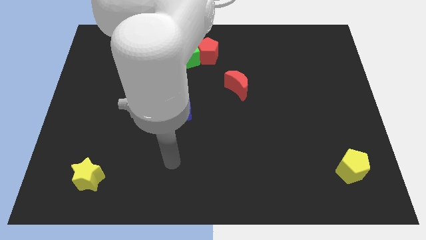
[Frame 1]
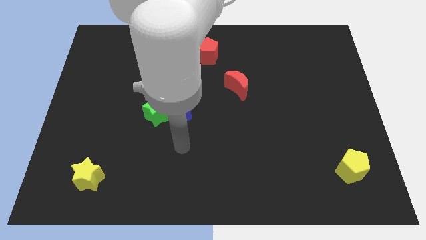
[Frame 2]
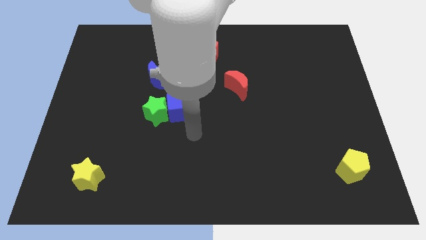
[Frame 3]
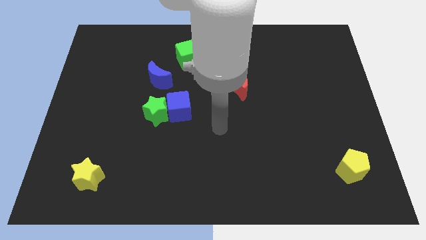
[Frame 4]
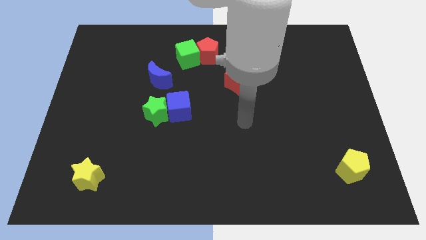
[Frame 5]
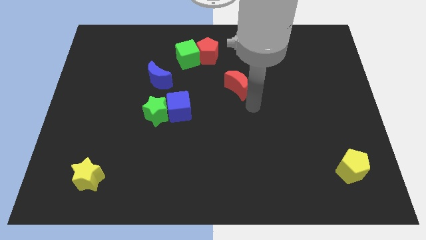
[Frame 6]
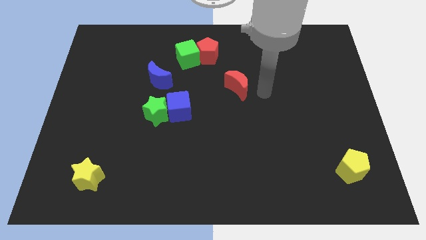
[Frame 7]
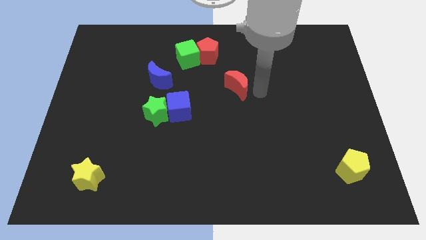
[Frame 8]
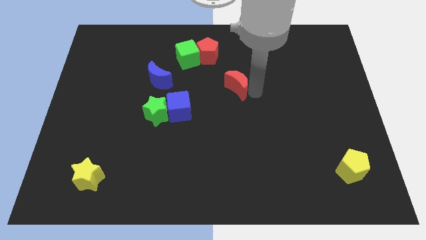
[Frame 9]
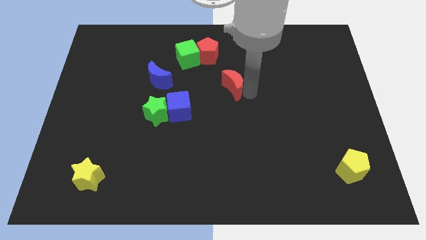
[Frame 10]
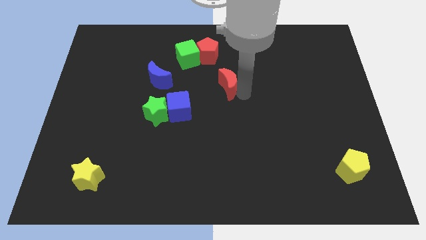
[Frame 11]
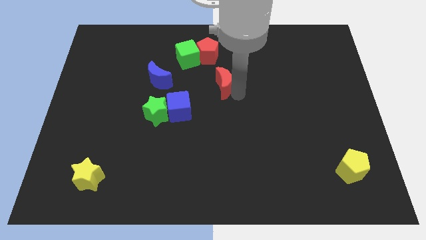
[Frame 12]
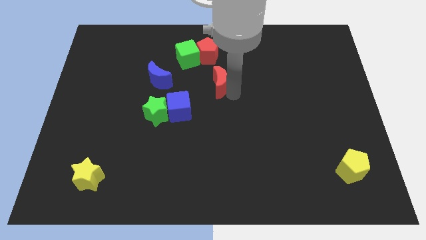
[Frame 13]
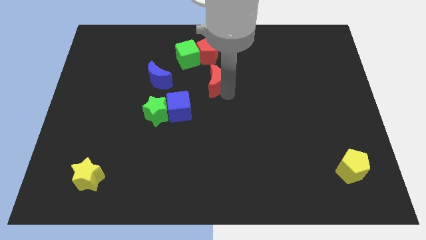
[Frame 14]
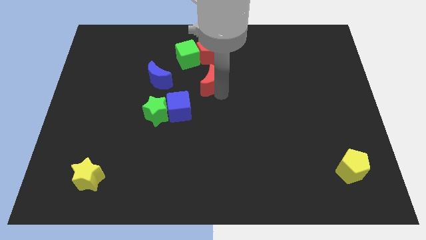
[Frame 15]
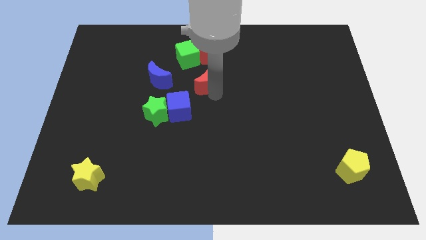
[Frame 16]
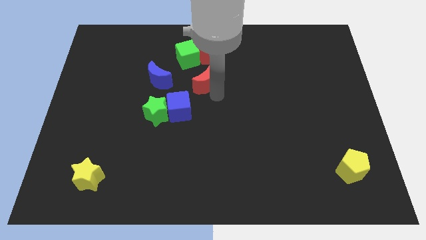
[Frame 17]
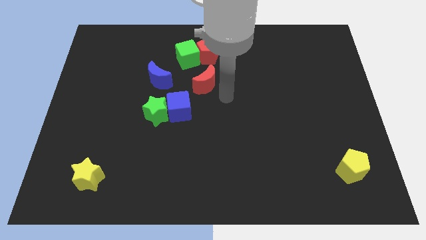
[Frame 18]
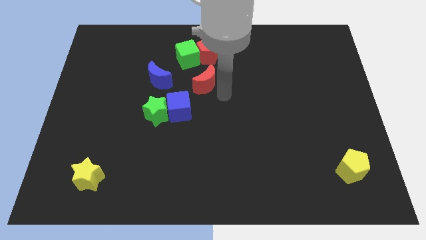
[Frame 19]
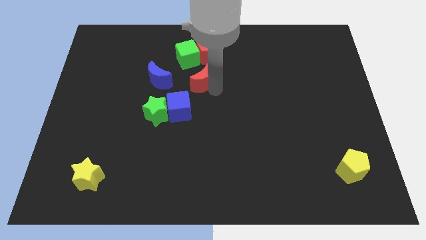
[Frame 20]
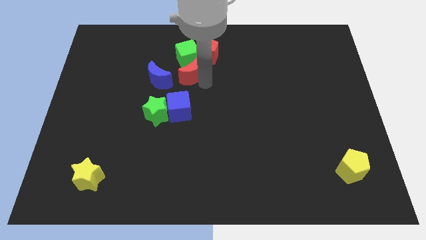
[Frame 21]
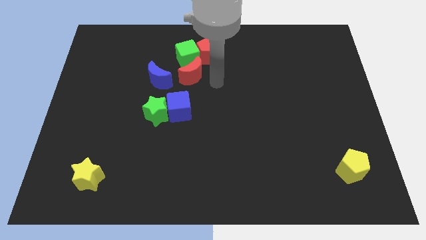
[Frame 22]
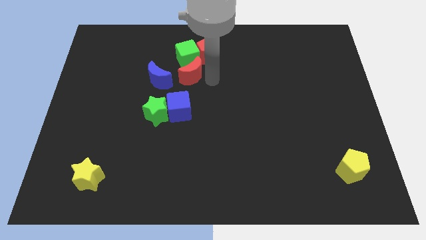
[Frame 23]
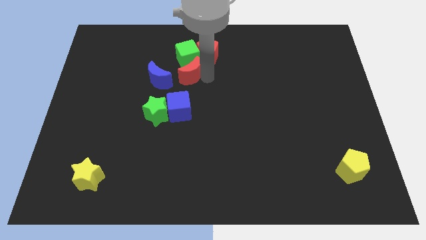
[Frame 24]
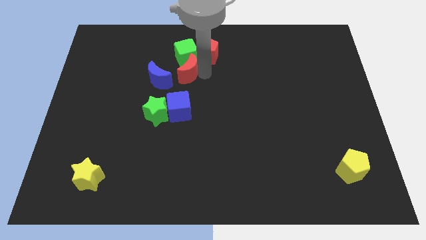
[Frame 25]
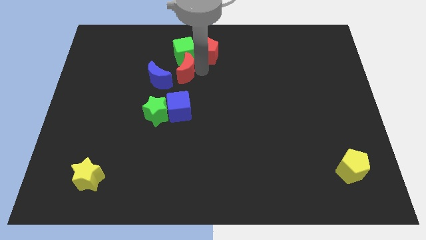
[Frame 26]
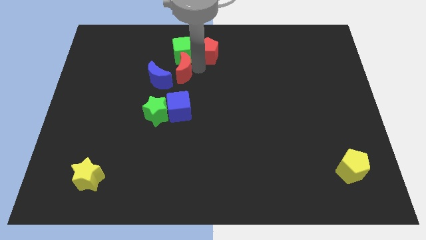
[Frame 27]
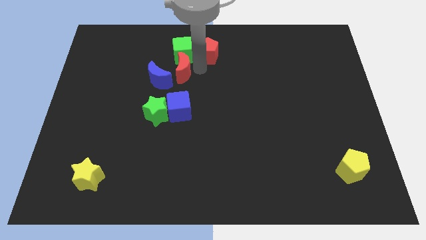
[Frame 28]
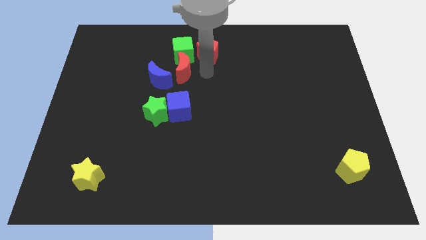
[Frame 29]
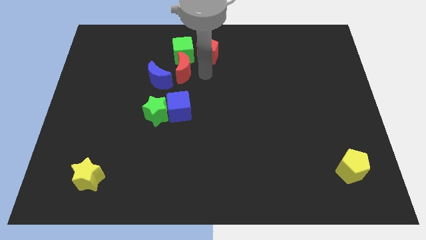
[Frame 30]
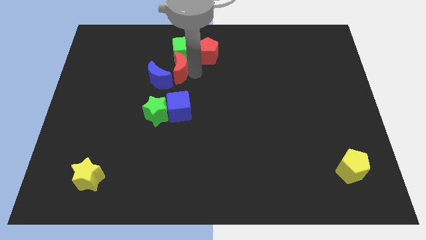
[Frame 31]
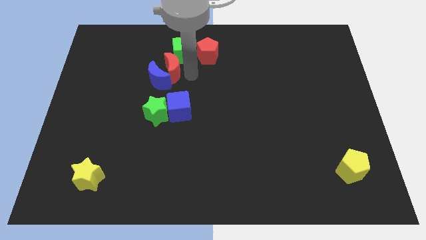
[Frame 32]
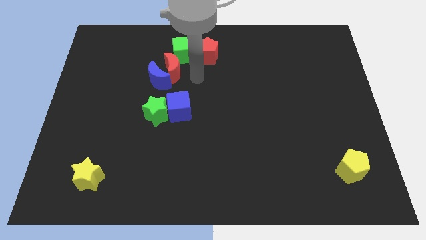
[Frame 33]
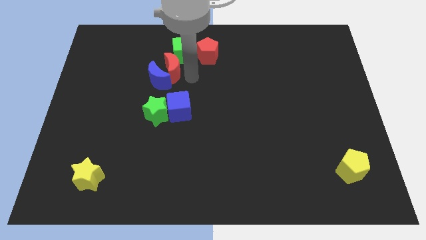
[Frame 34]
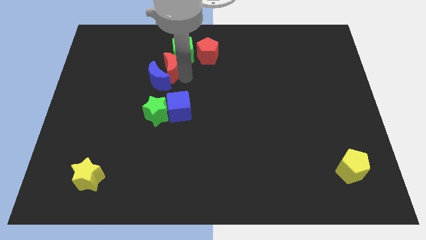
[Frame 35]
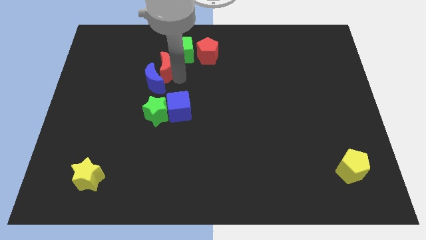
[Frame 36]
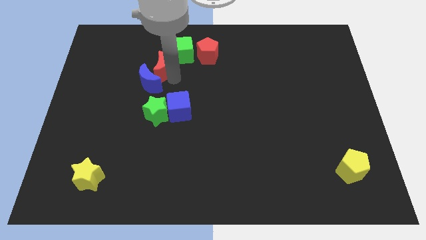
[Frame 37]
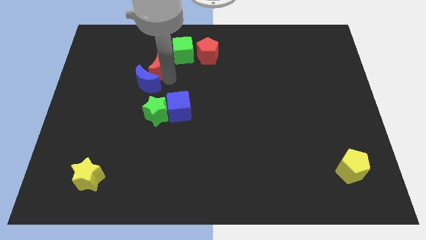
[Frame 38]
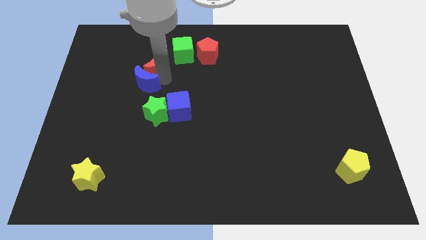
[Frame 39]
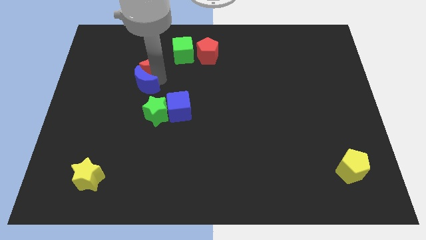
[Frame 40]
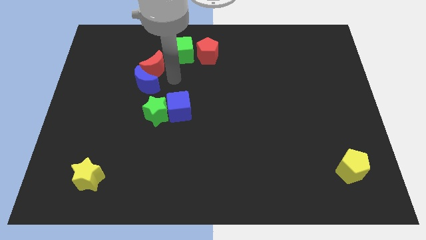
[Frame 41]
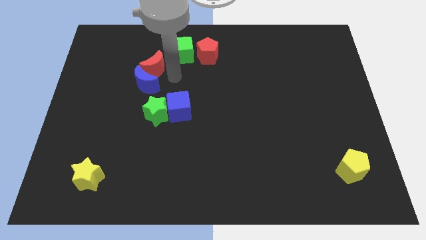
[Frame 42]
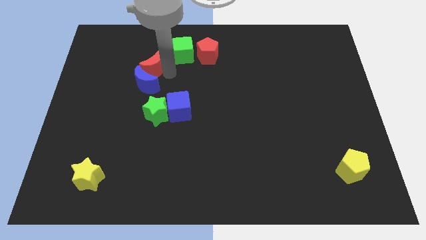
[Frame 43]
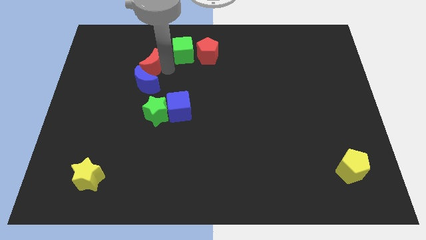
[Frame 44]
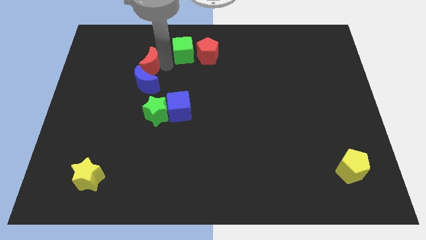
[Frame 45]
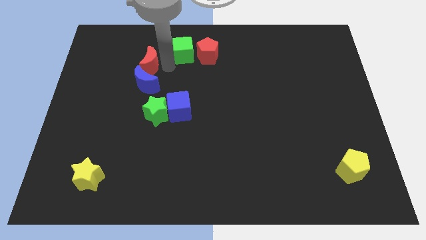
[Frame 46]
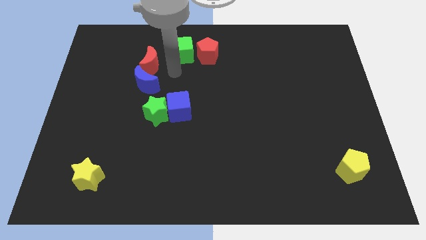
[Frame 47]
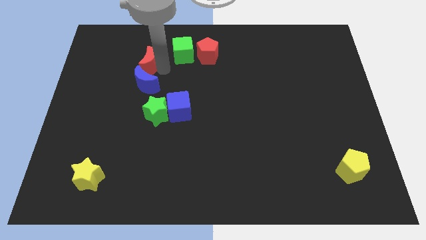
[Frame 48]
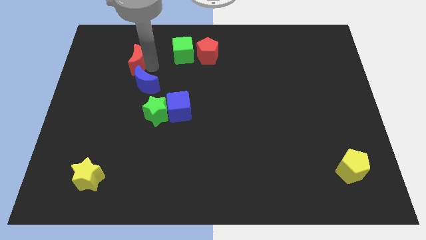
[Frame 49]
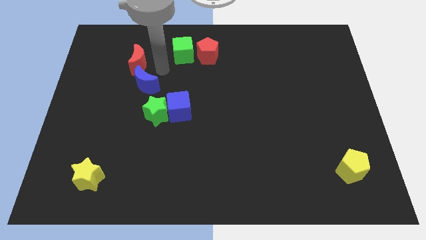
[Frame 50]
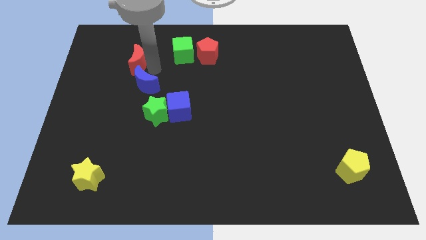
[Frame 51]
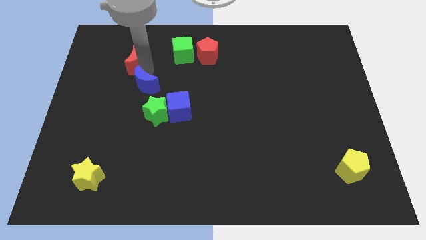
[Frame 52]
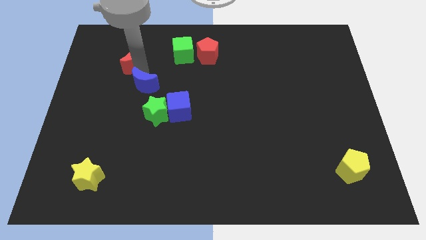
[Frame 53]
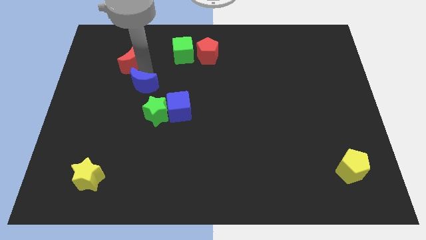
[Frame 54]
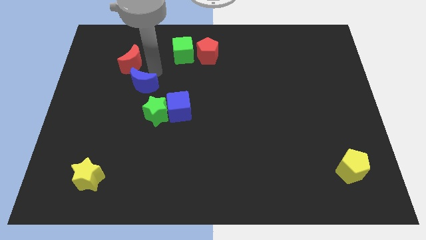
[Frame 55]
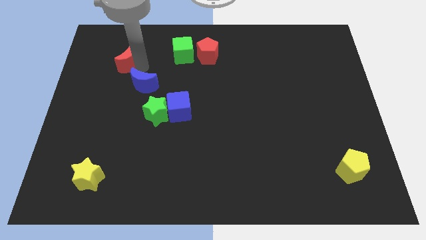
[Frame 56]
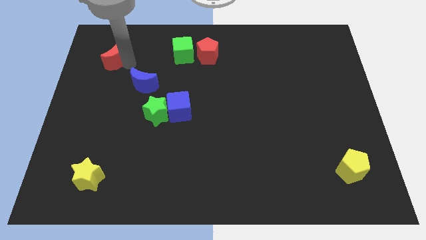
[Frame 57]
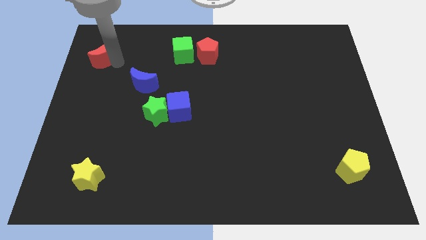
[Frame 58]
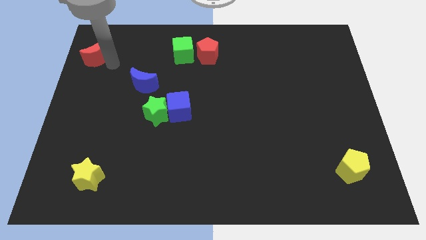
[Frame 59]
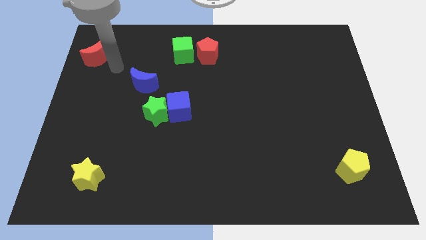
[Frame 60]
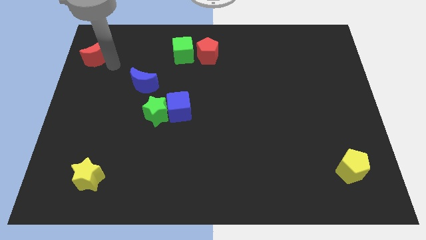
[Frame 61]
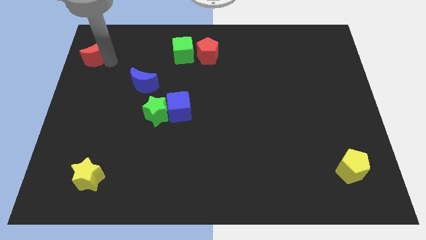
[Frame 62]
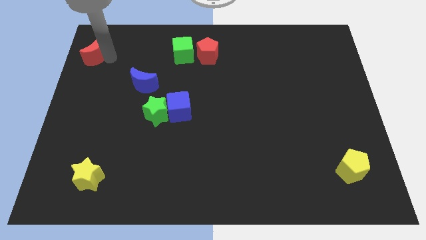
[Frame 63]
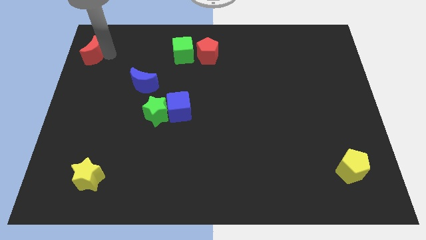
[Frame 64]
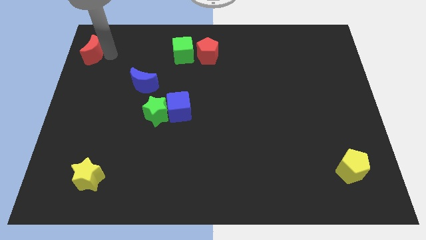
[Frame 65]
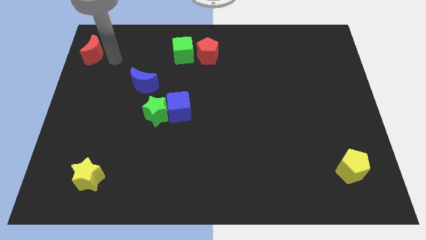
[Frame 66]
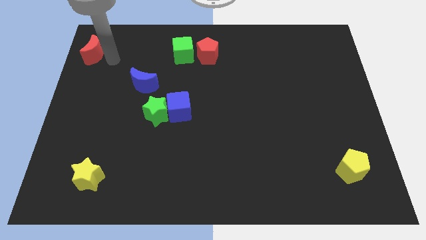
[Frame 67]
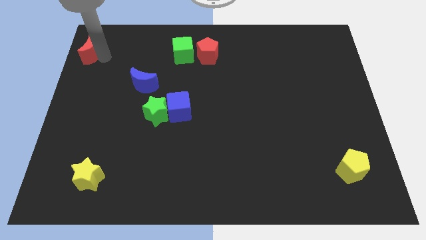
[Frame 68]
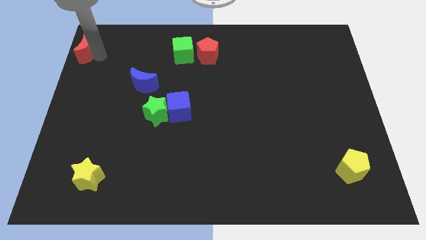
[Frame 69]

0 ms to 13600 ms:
push the red moon to the top left corner
